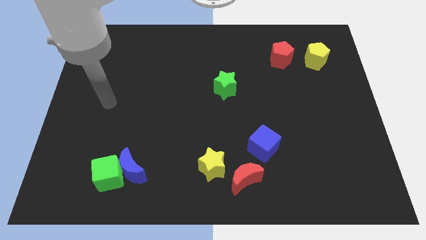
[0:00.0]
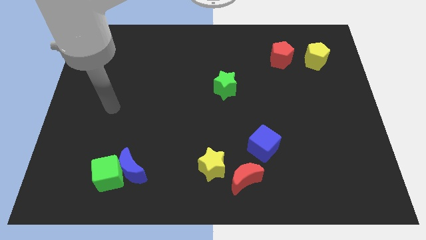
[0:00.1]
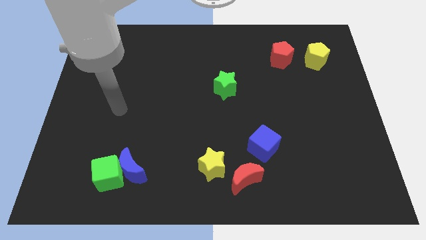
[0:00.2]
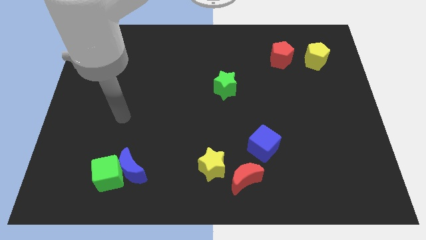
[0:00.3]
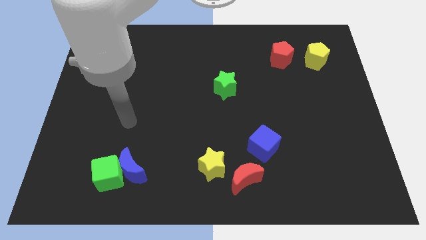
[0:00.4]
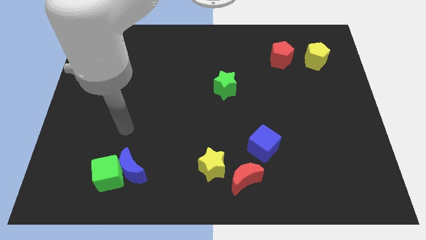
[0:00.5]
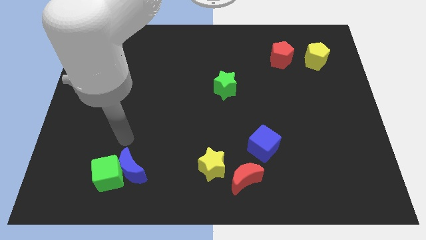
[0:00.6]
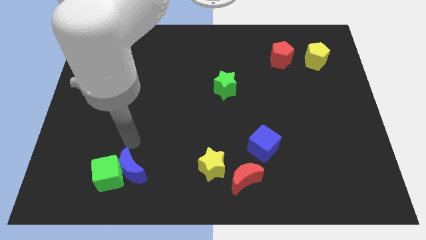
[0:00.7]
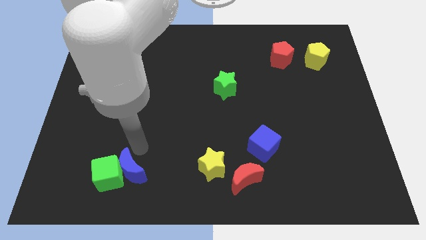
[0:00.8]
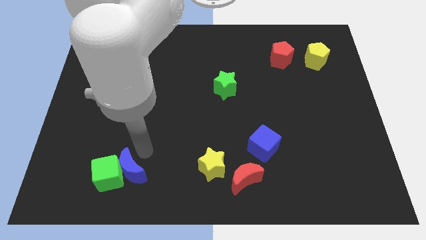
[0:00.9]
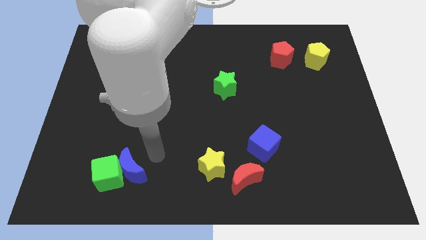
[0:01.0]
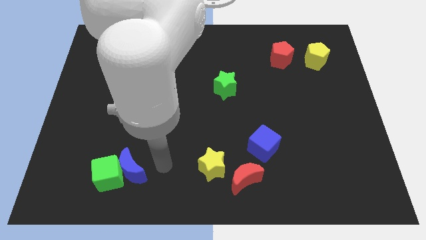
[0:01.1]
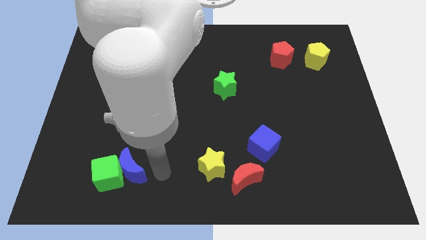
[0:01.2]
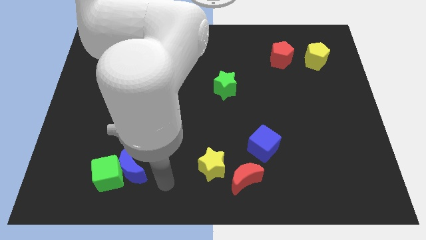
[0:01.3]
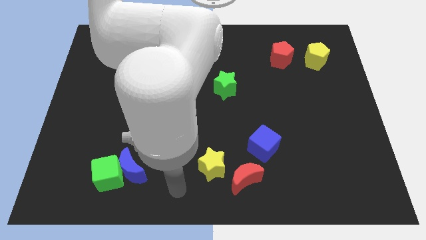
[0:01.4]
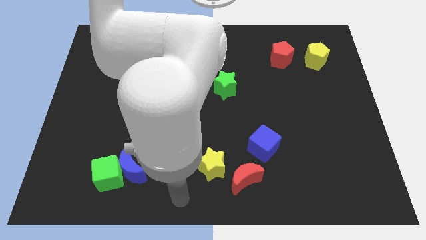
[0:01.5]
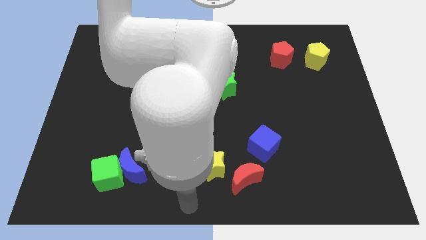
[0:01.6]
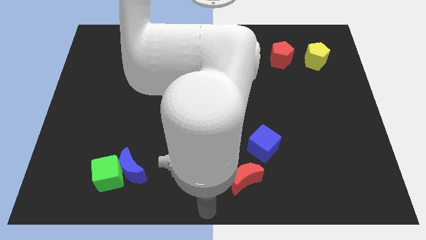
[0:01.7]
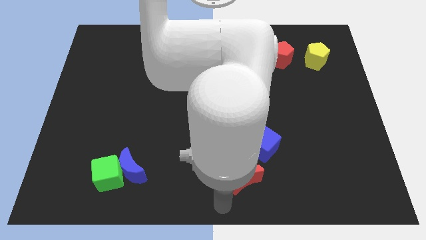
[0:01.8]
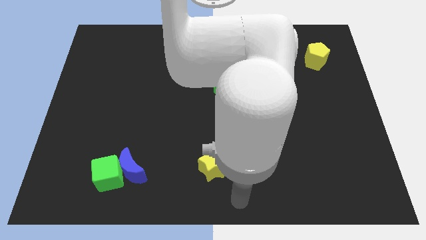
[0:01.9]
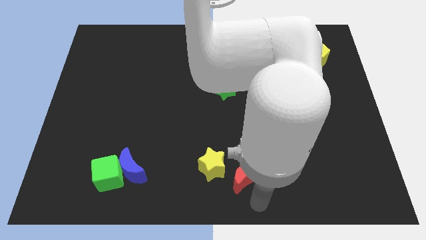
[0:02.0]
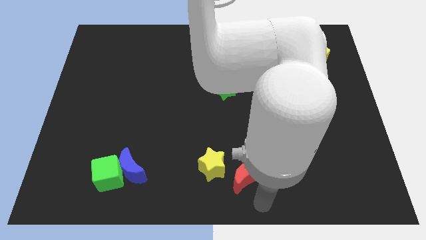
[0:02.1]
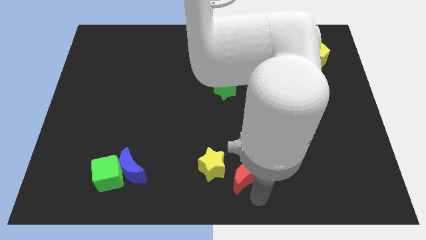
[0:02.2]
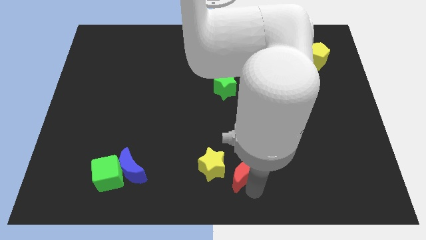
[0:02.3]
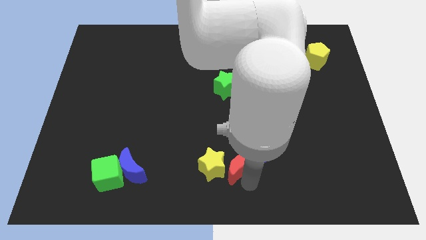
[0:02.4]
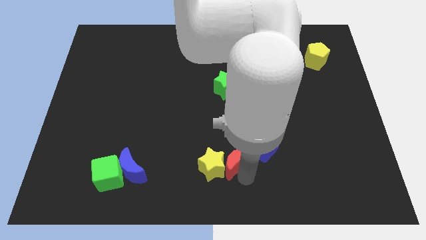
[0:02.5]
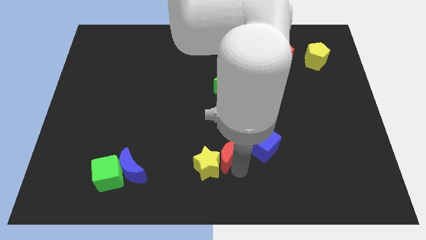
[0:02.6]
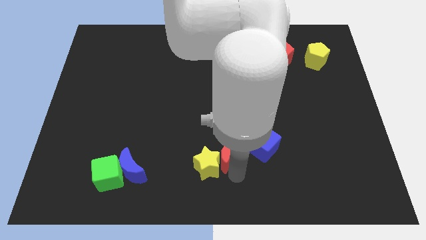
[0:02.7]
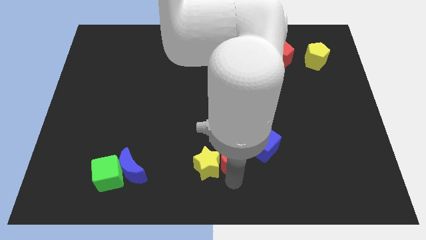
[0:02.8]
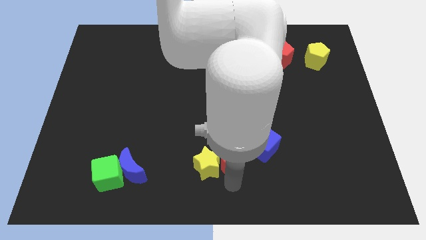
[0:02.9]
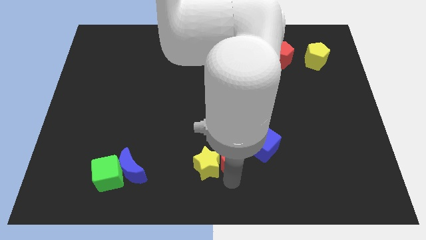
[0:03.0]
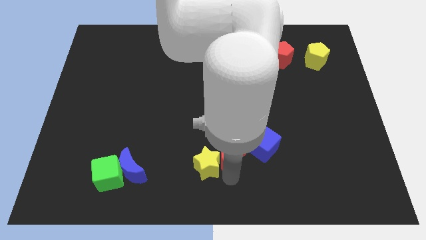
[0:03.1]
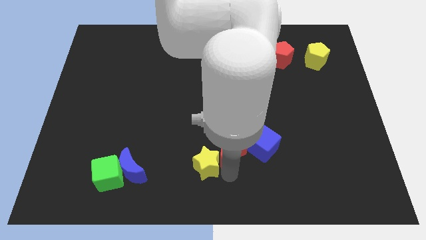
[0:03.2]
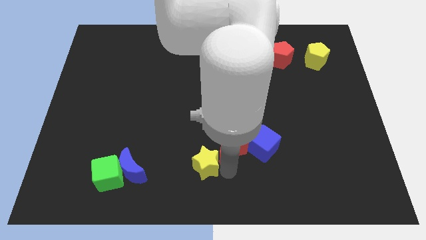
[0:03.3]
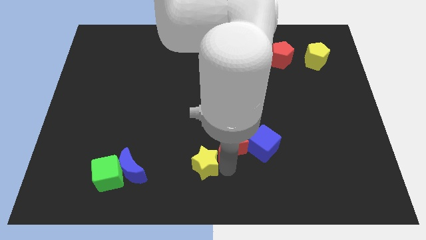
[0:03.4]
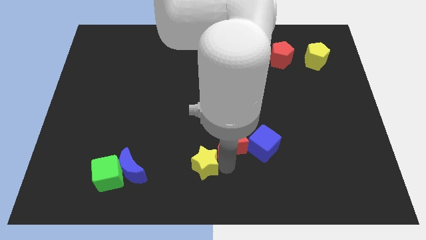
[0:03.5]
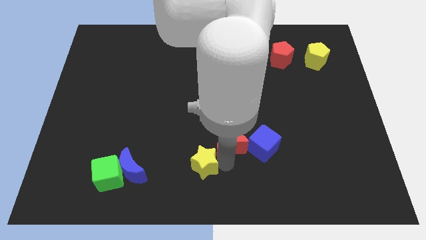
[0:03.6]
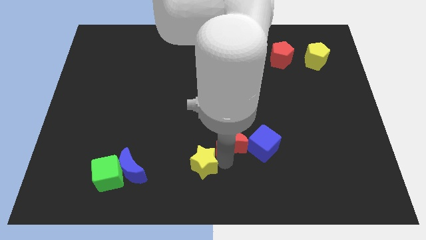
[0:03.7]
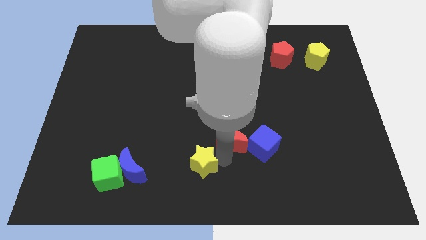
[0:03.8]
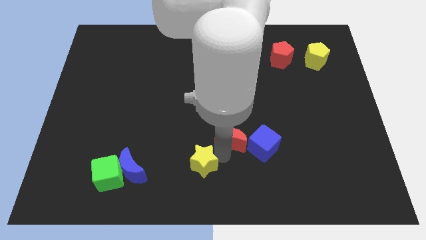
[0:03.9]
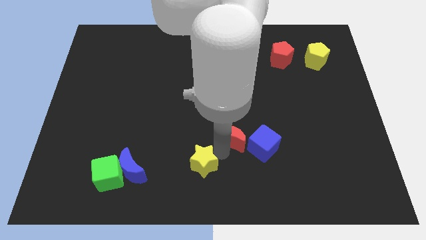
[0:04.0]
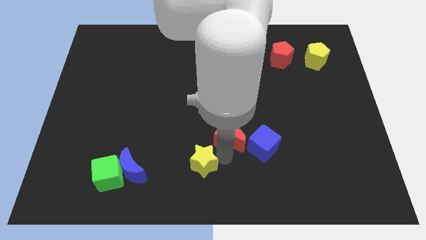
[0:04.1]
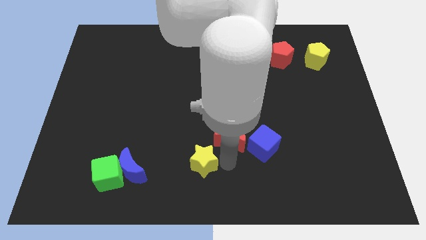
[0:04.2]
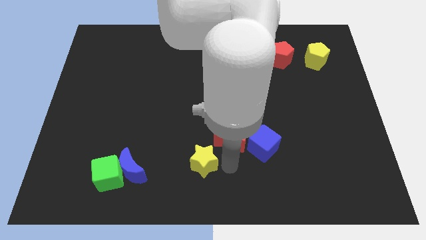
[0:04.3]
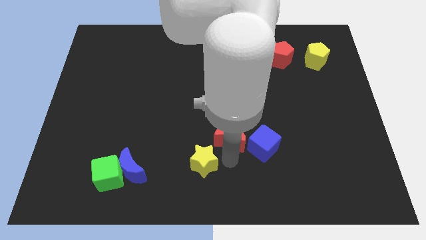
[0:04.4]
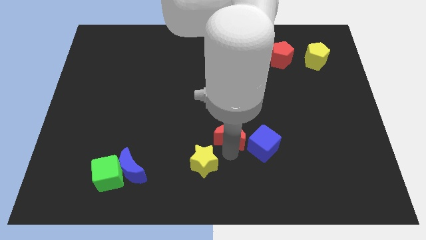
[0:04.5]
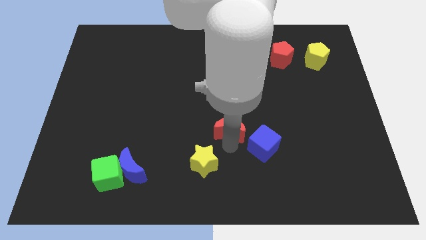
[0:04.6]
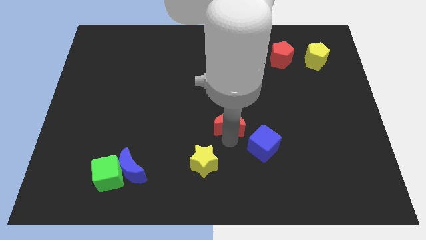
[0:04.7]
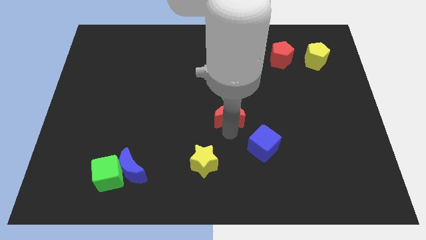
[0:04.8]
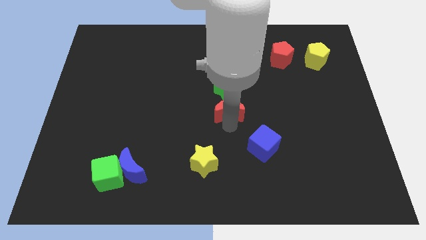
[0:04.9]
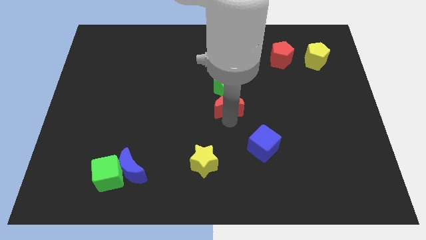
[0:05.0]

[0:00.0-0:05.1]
push the red moon close to the green star

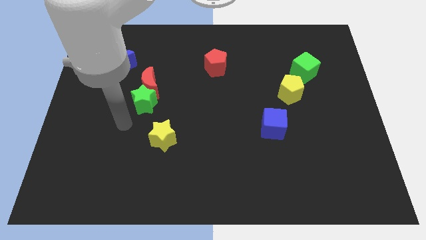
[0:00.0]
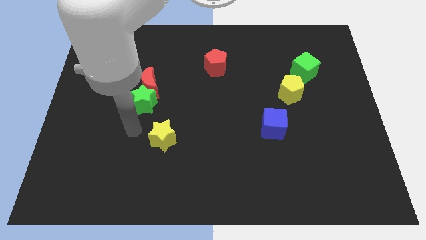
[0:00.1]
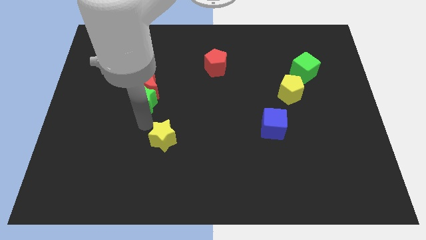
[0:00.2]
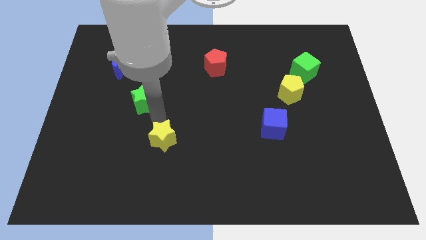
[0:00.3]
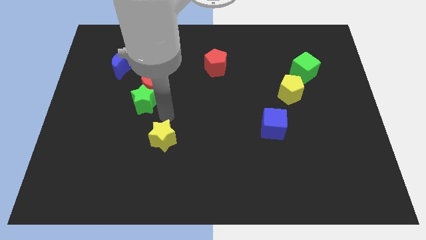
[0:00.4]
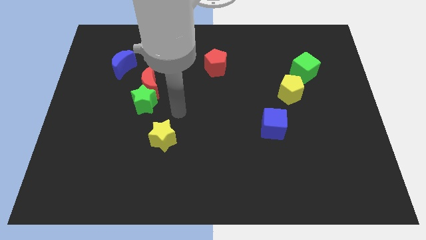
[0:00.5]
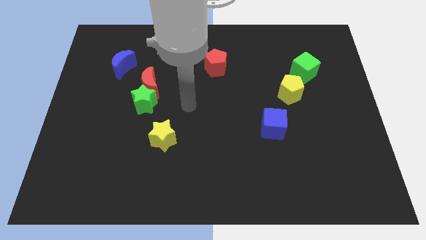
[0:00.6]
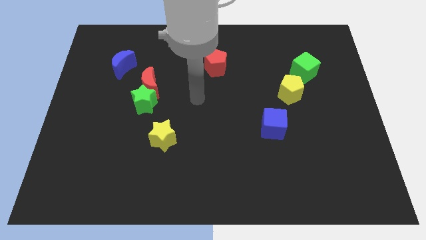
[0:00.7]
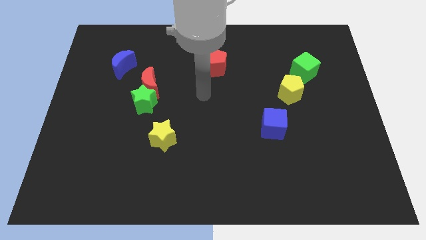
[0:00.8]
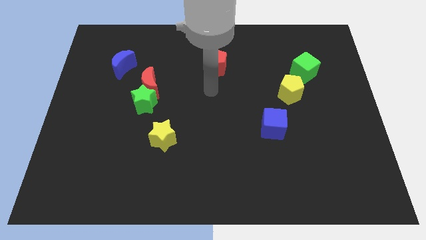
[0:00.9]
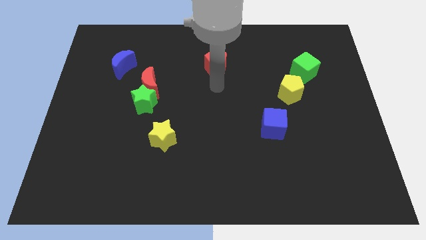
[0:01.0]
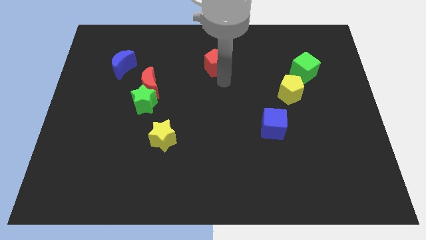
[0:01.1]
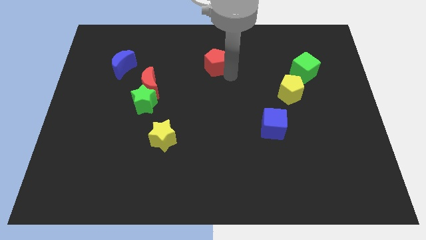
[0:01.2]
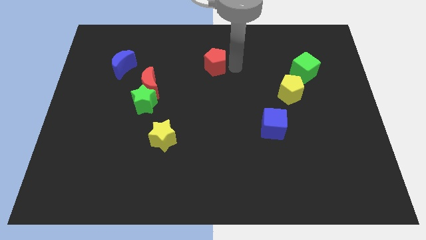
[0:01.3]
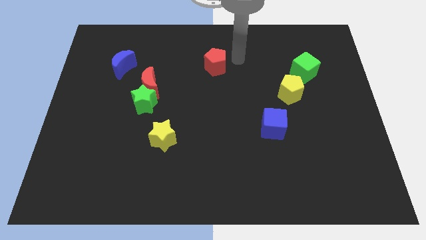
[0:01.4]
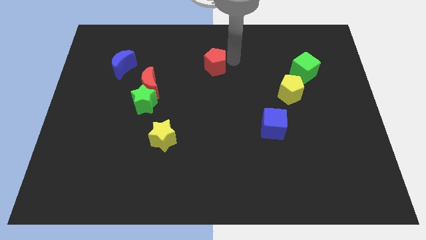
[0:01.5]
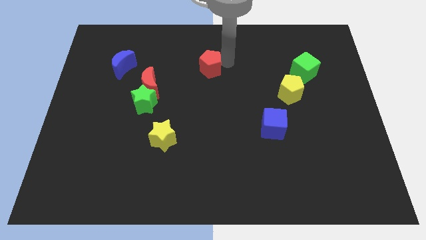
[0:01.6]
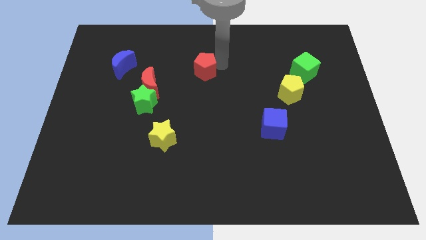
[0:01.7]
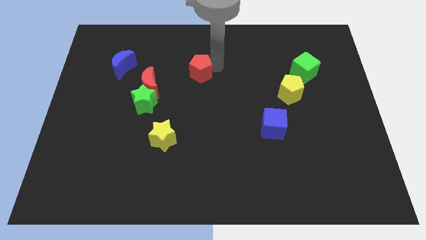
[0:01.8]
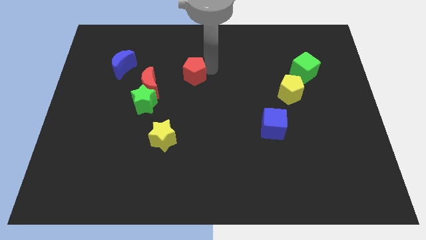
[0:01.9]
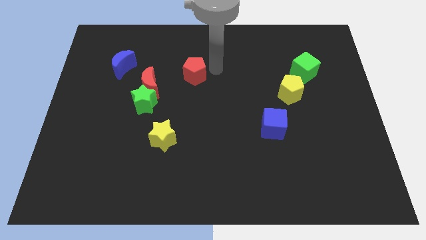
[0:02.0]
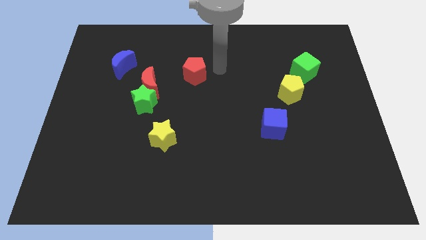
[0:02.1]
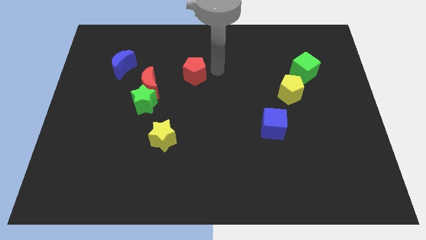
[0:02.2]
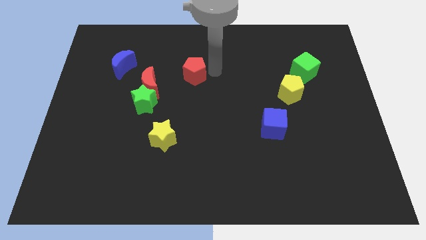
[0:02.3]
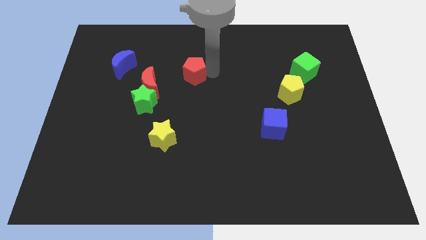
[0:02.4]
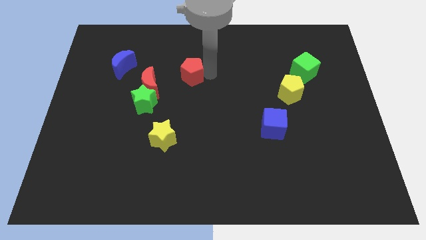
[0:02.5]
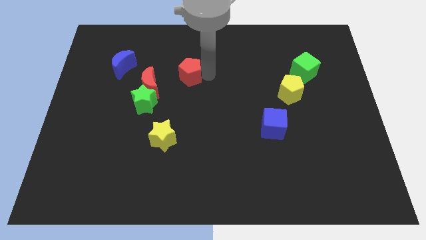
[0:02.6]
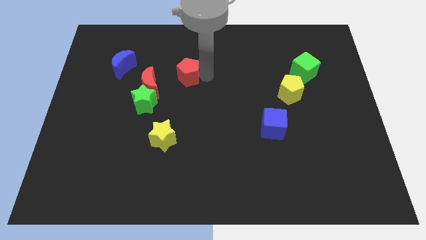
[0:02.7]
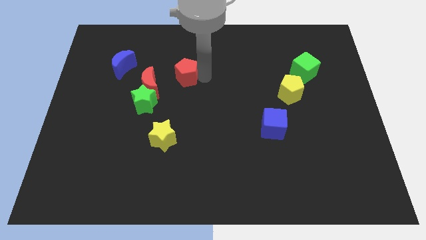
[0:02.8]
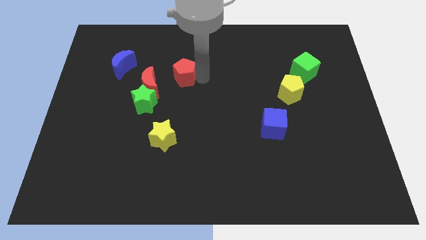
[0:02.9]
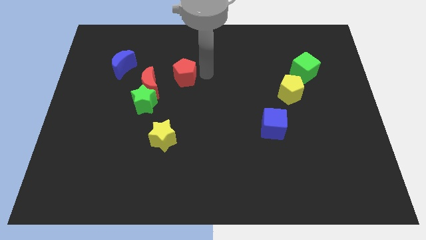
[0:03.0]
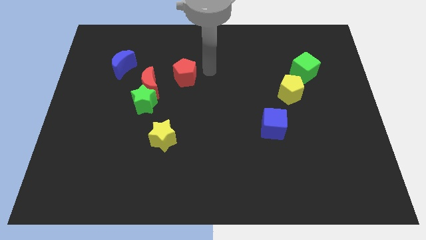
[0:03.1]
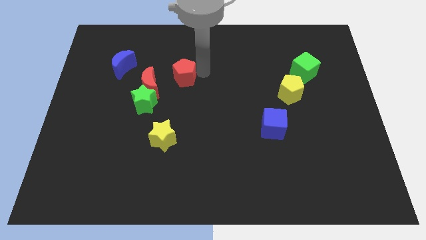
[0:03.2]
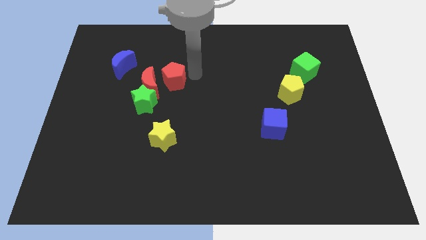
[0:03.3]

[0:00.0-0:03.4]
push the red pentagon next to the red moon
